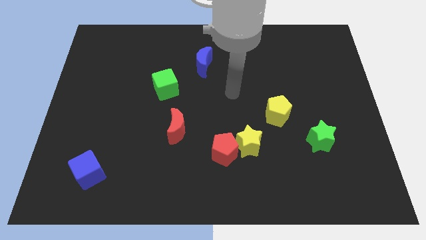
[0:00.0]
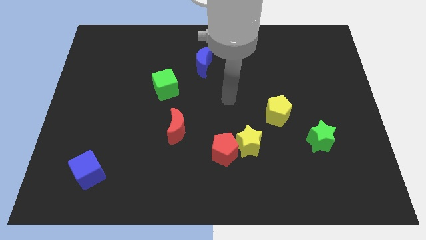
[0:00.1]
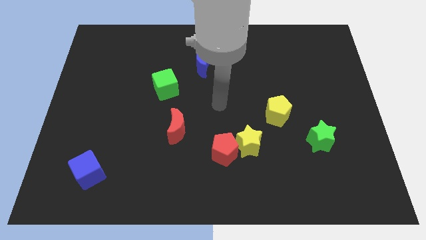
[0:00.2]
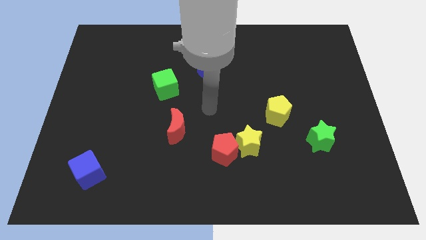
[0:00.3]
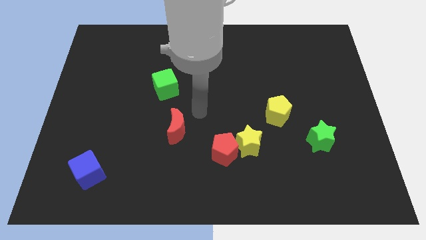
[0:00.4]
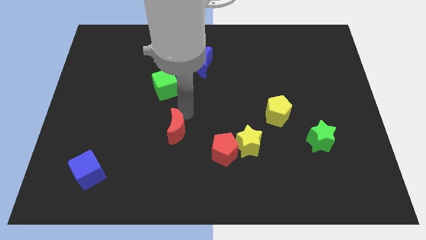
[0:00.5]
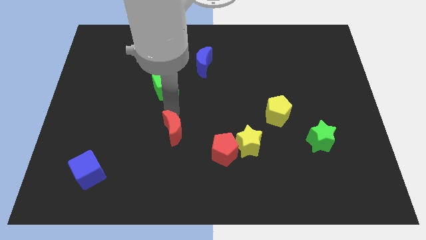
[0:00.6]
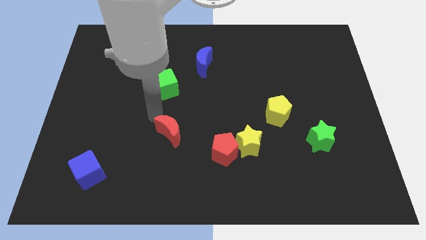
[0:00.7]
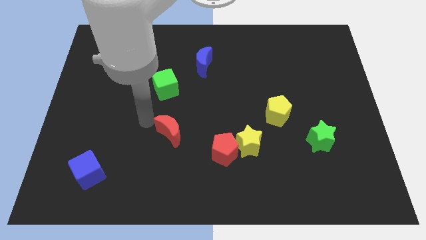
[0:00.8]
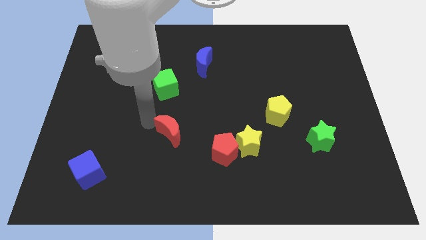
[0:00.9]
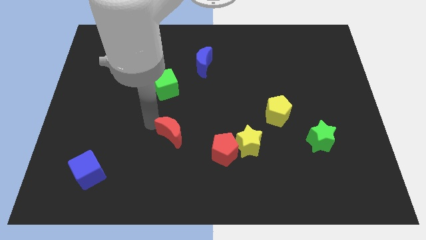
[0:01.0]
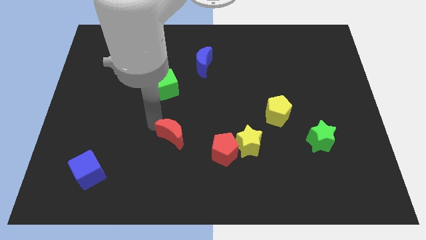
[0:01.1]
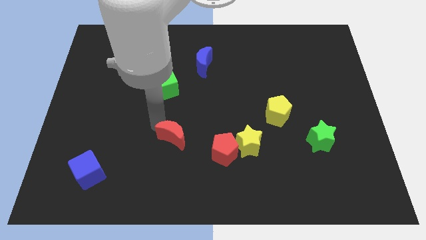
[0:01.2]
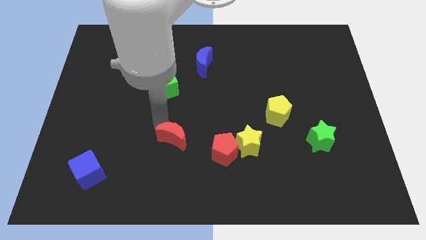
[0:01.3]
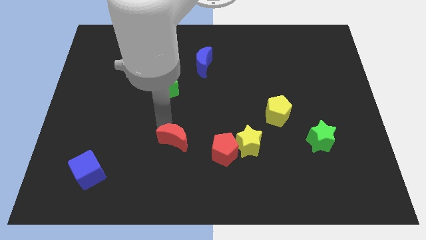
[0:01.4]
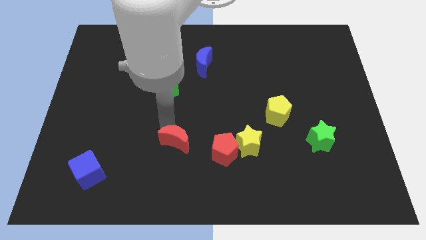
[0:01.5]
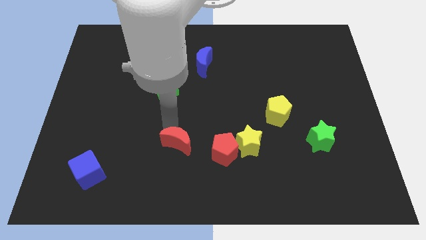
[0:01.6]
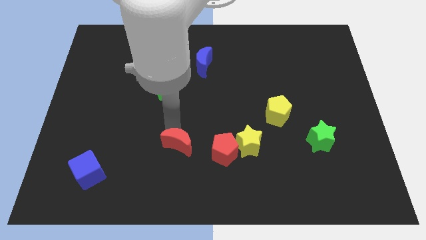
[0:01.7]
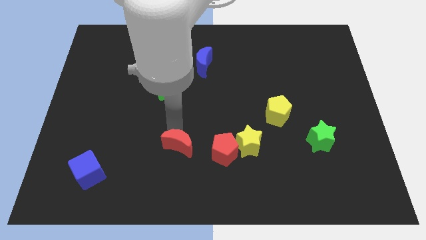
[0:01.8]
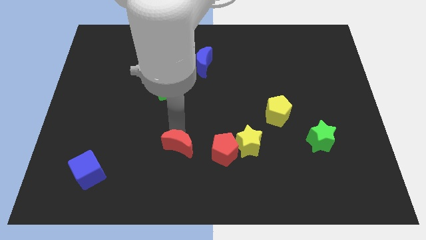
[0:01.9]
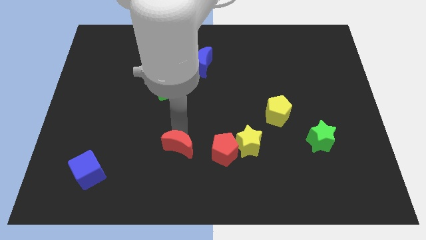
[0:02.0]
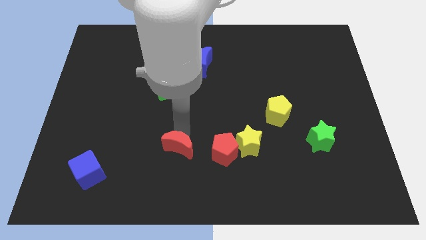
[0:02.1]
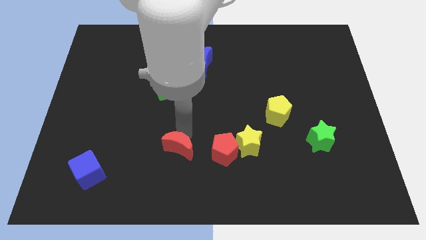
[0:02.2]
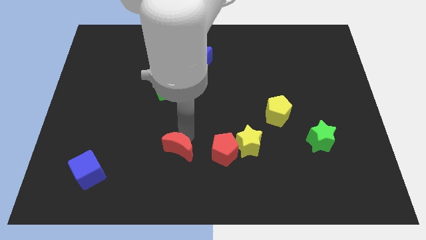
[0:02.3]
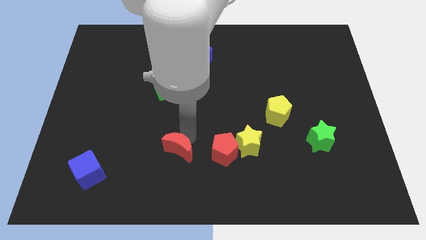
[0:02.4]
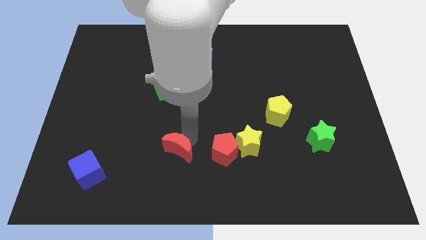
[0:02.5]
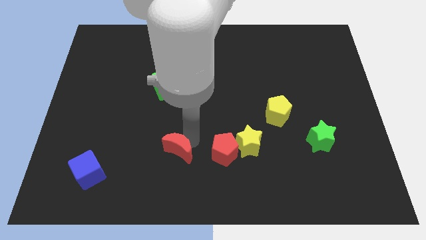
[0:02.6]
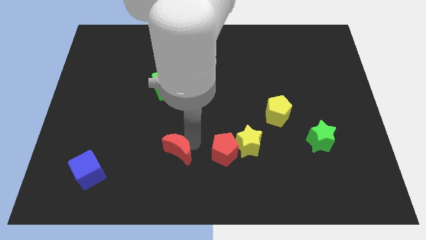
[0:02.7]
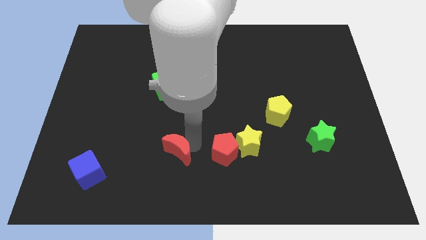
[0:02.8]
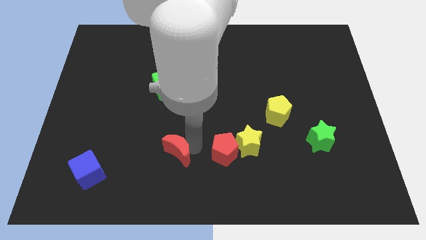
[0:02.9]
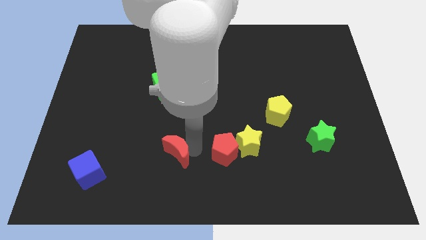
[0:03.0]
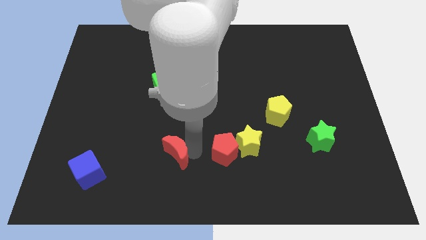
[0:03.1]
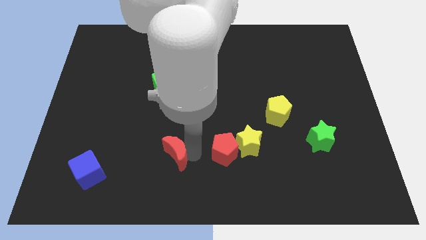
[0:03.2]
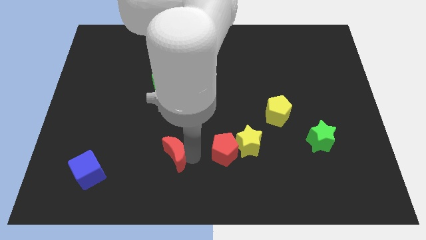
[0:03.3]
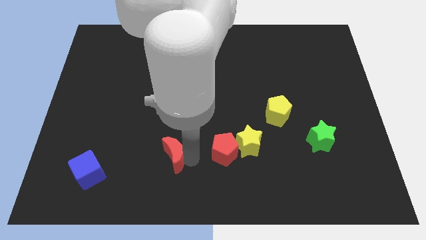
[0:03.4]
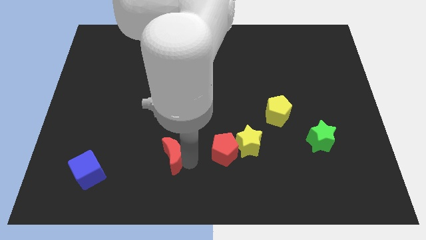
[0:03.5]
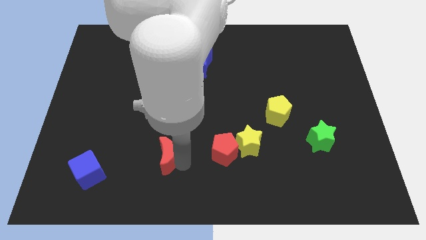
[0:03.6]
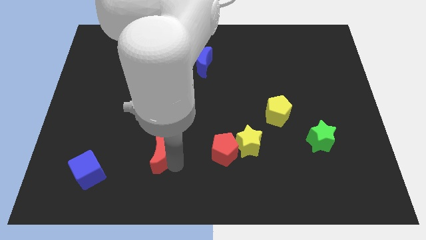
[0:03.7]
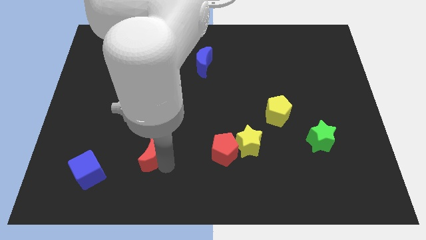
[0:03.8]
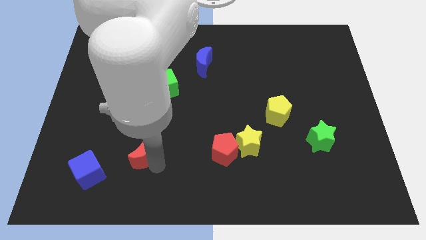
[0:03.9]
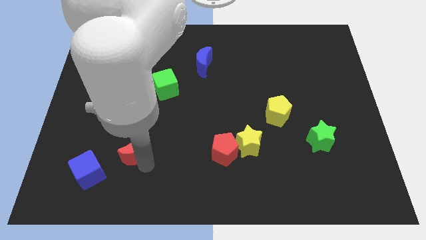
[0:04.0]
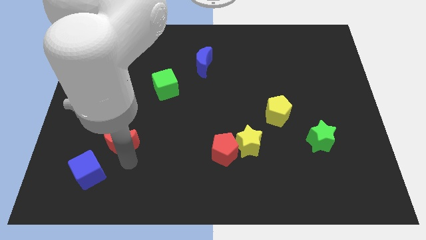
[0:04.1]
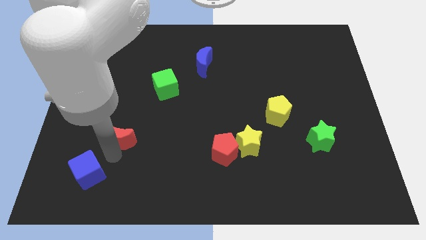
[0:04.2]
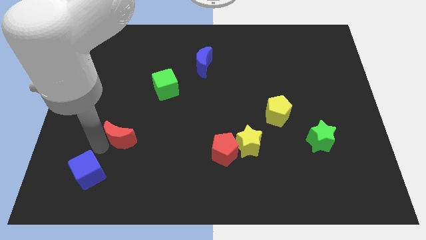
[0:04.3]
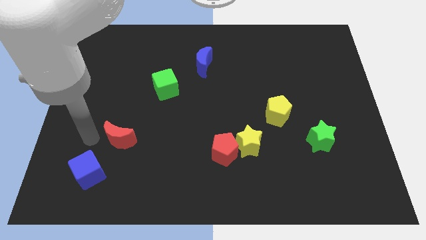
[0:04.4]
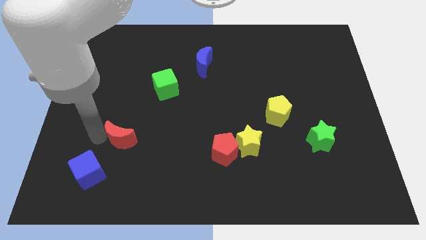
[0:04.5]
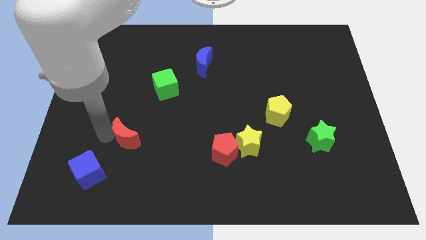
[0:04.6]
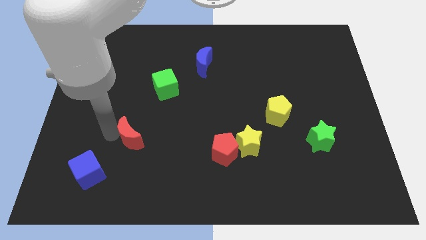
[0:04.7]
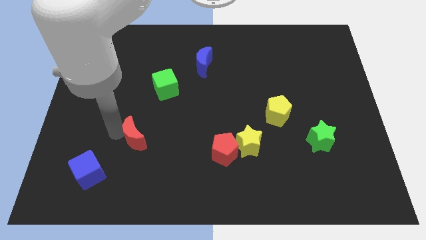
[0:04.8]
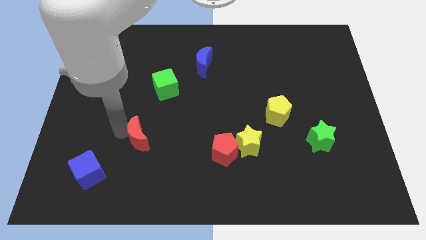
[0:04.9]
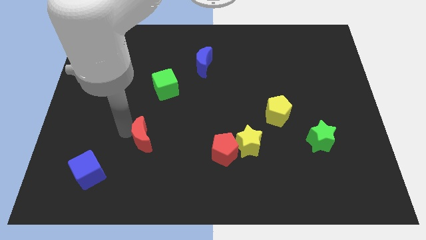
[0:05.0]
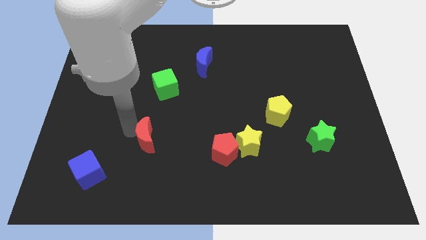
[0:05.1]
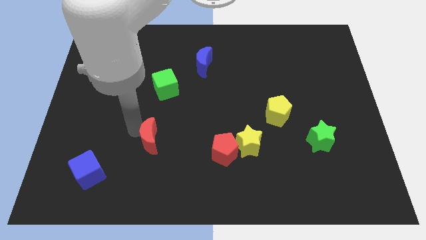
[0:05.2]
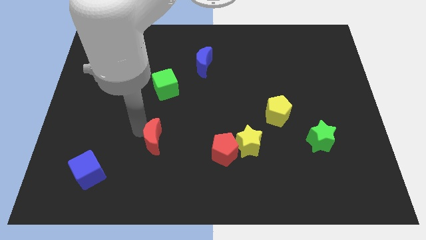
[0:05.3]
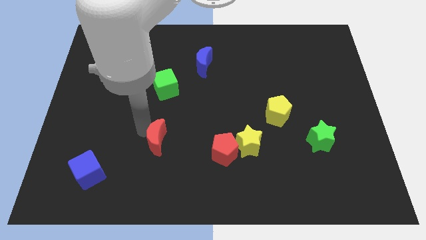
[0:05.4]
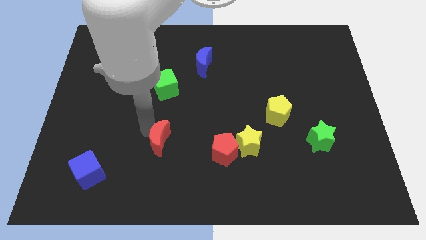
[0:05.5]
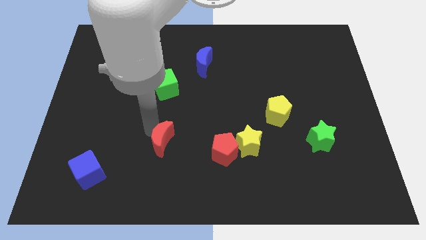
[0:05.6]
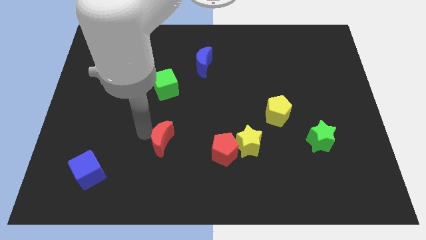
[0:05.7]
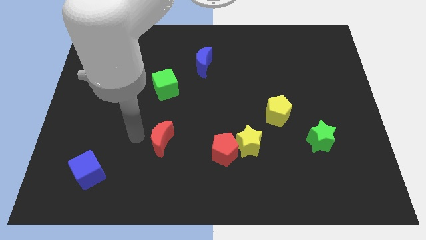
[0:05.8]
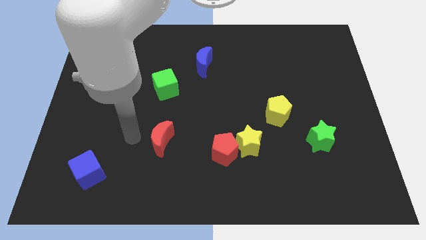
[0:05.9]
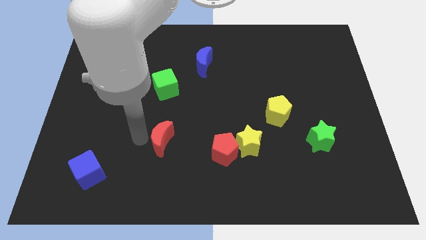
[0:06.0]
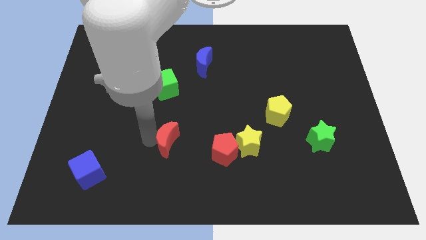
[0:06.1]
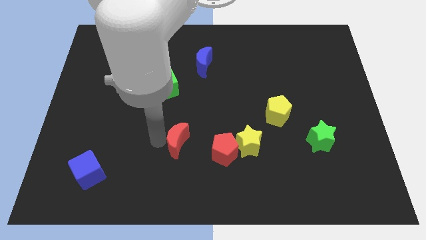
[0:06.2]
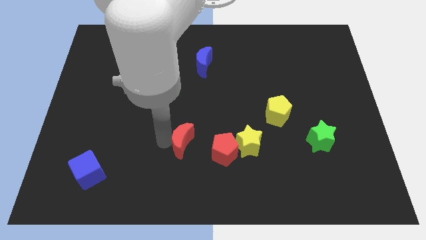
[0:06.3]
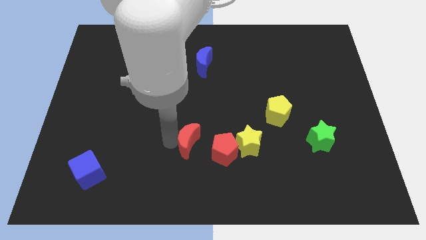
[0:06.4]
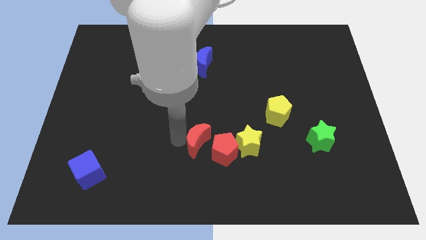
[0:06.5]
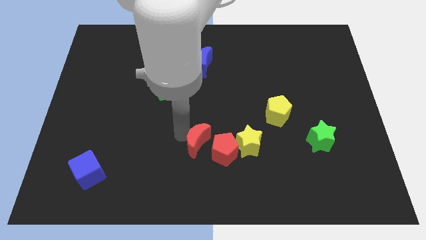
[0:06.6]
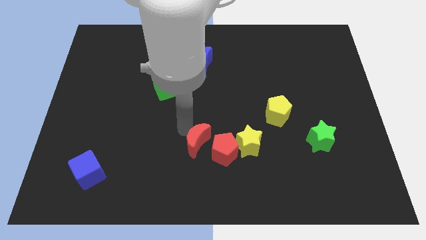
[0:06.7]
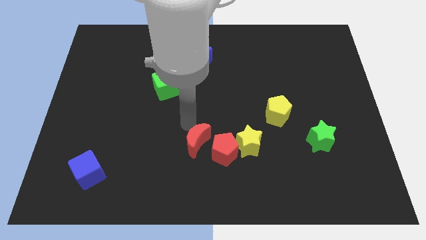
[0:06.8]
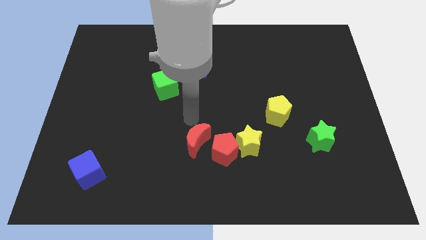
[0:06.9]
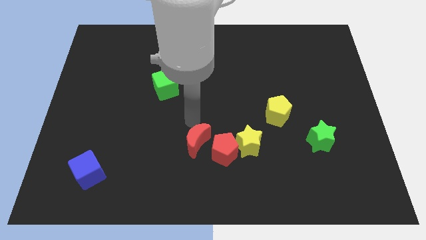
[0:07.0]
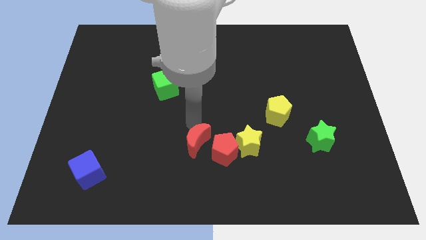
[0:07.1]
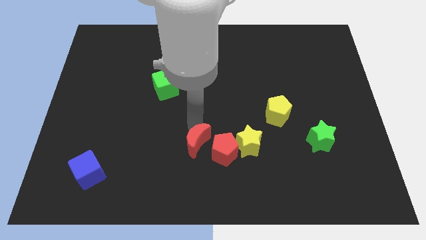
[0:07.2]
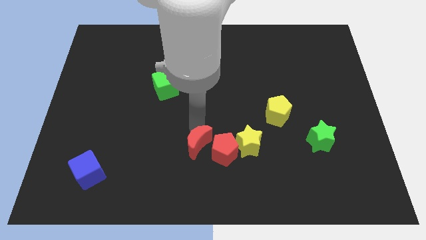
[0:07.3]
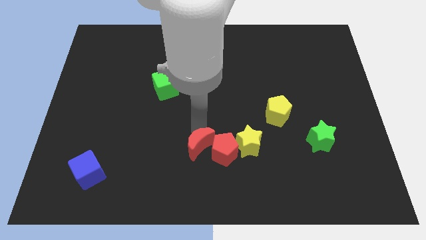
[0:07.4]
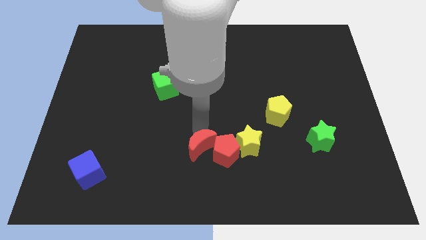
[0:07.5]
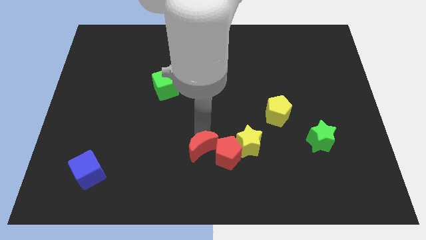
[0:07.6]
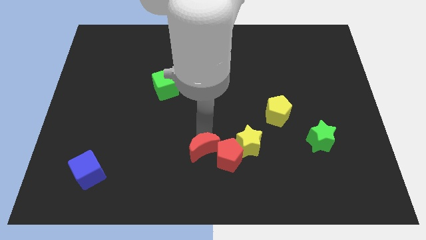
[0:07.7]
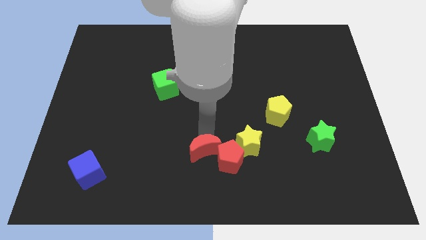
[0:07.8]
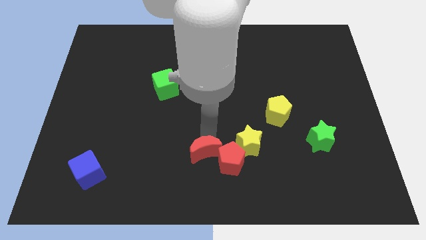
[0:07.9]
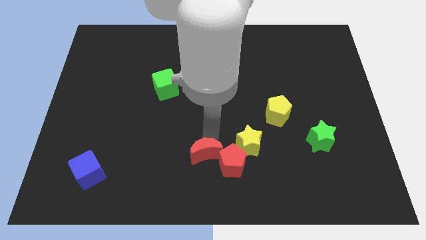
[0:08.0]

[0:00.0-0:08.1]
slide the red moon to the bottom
